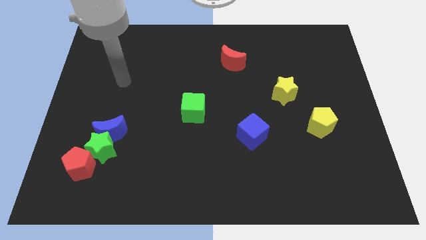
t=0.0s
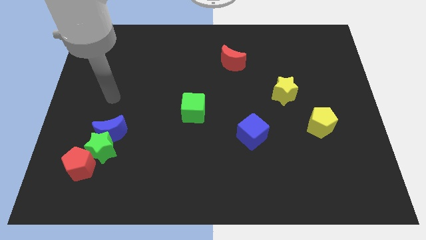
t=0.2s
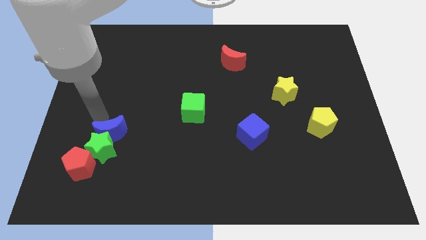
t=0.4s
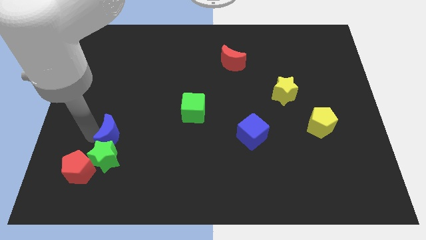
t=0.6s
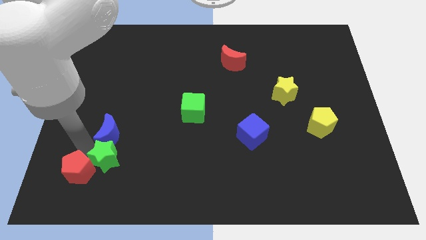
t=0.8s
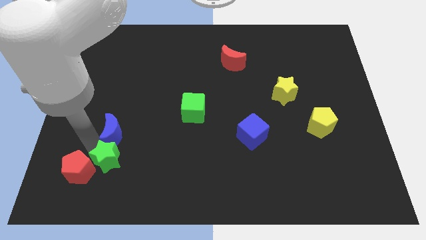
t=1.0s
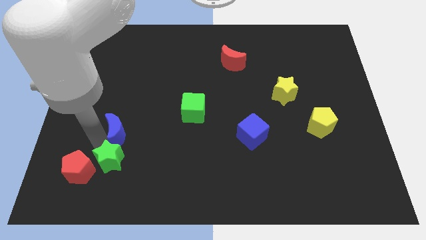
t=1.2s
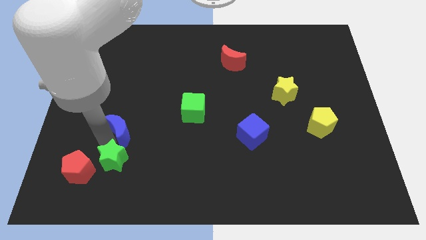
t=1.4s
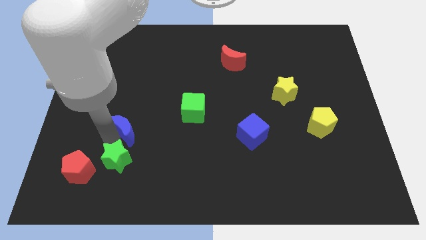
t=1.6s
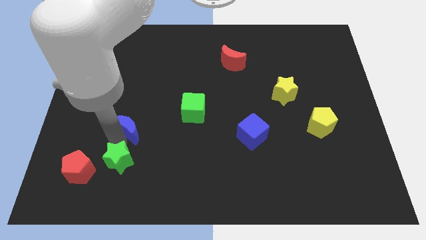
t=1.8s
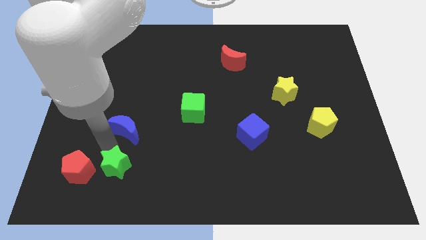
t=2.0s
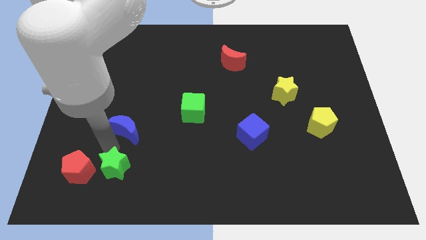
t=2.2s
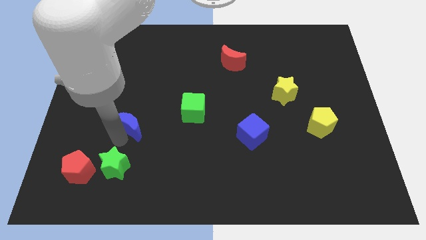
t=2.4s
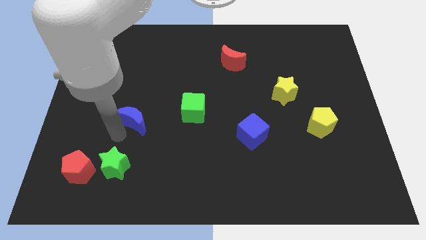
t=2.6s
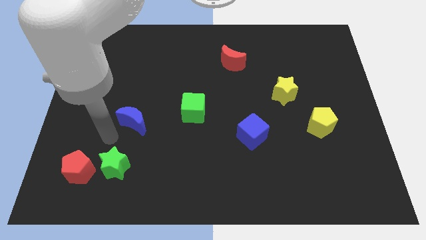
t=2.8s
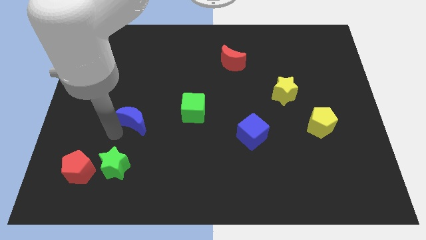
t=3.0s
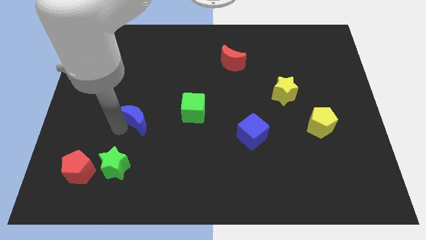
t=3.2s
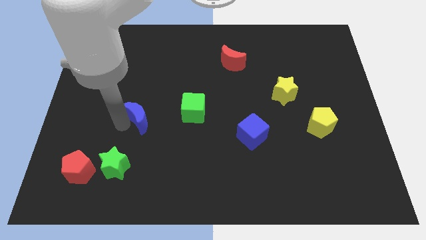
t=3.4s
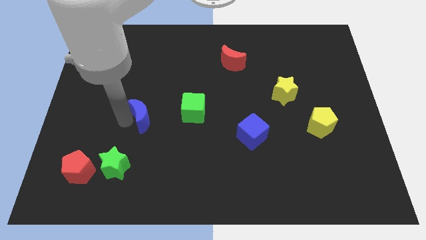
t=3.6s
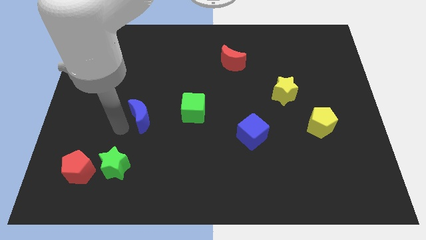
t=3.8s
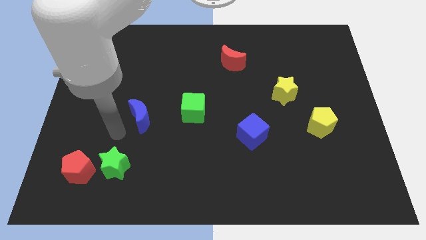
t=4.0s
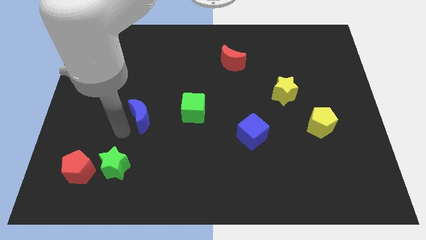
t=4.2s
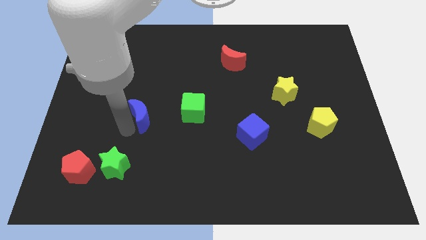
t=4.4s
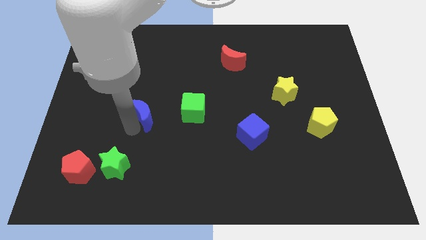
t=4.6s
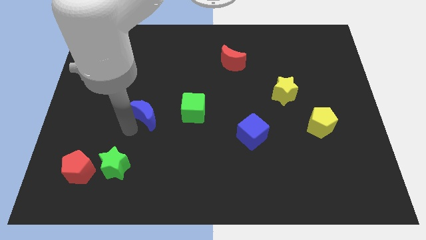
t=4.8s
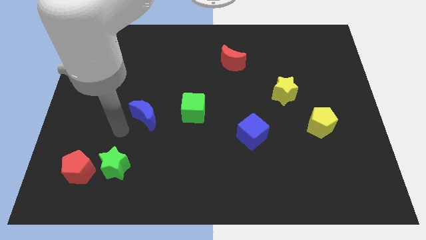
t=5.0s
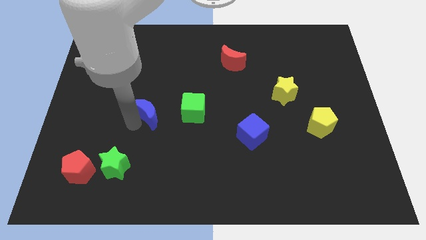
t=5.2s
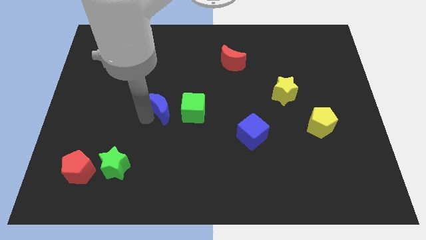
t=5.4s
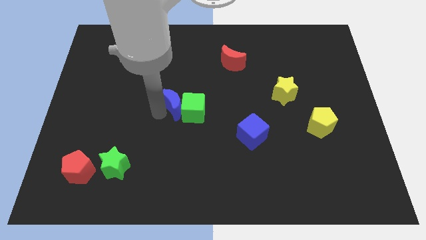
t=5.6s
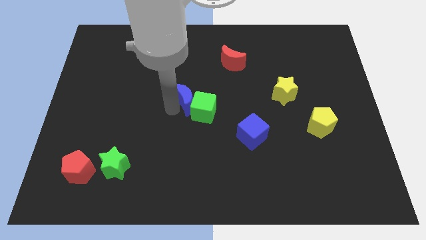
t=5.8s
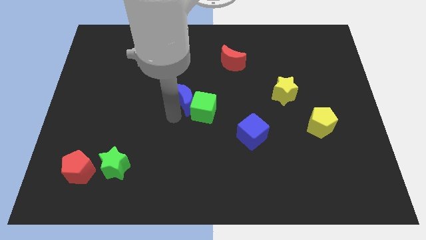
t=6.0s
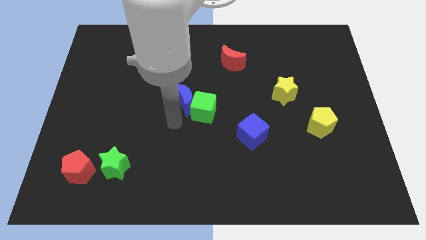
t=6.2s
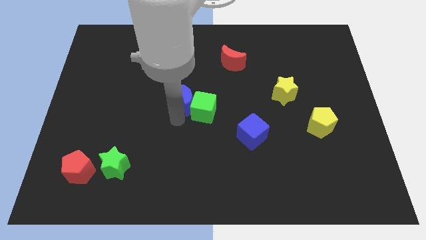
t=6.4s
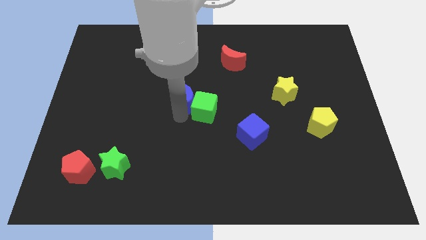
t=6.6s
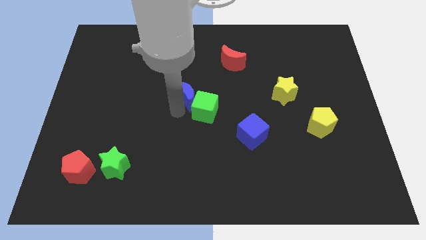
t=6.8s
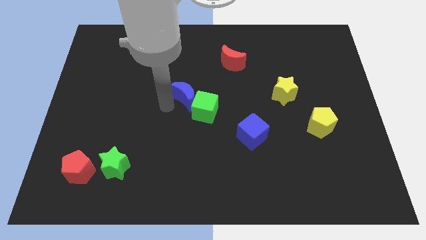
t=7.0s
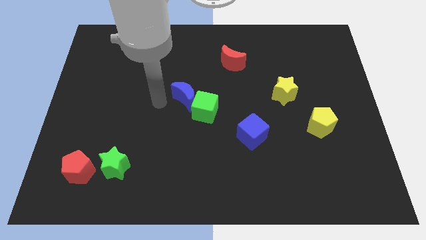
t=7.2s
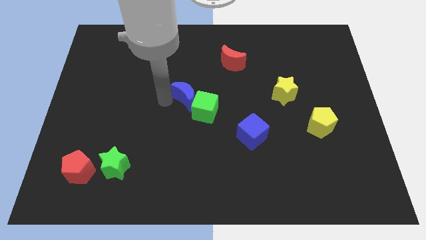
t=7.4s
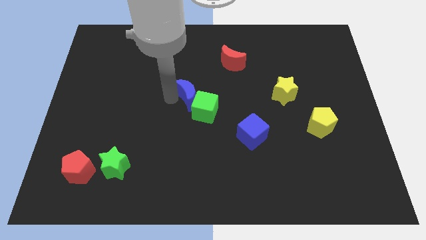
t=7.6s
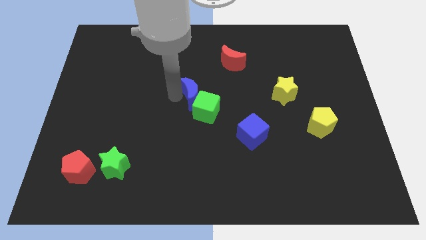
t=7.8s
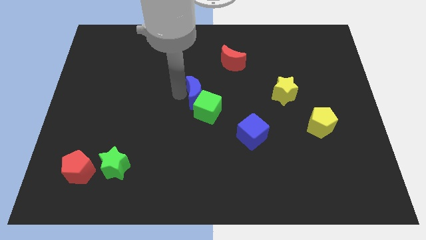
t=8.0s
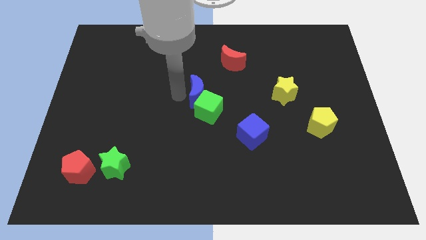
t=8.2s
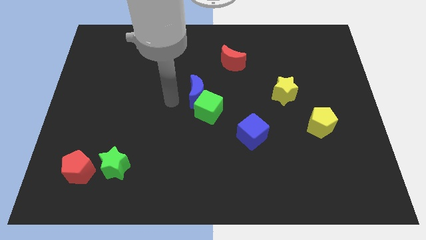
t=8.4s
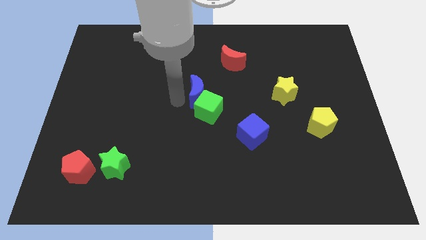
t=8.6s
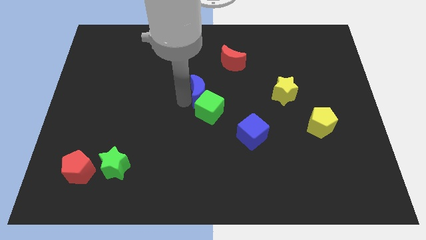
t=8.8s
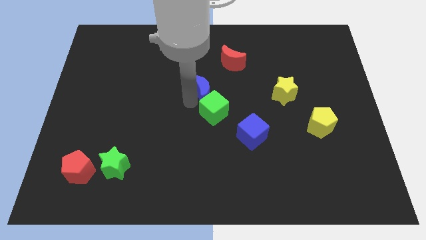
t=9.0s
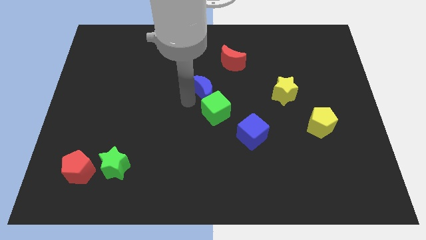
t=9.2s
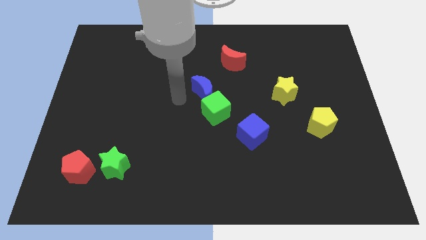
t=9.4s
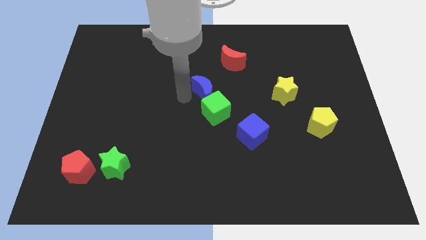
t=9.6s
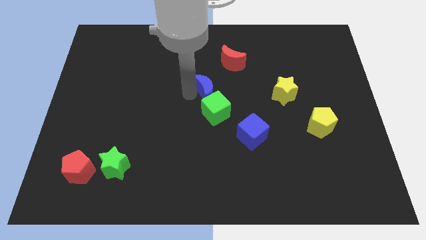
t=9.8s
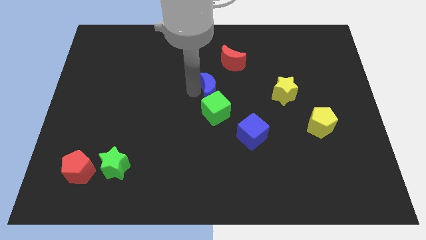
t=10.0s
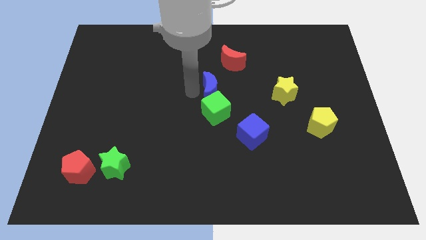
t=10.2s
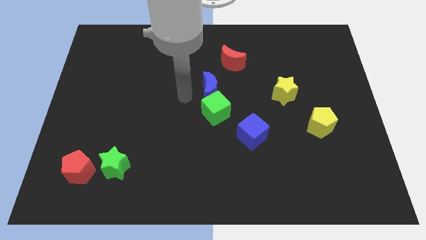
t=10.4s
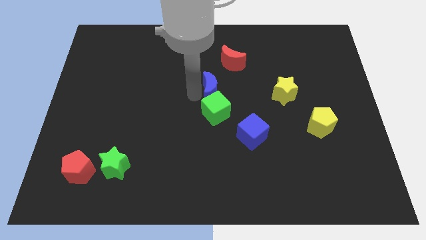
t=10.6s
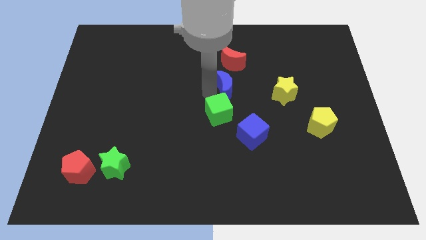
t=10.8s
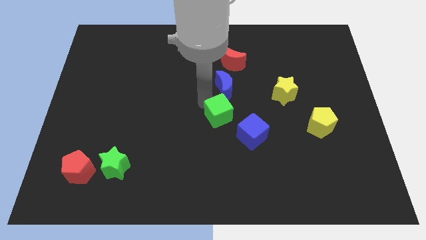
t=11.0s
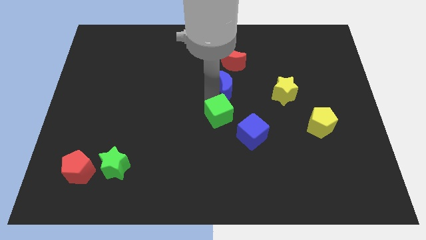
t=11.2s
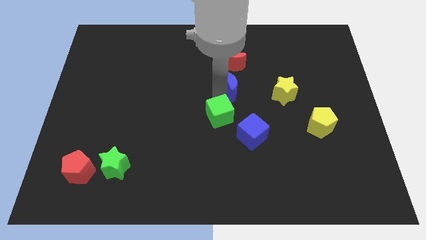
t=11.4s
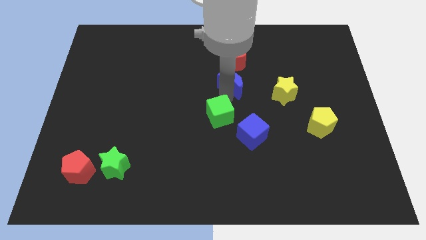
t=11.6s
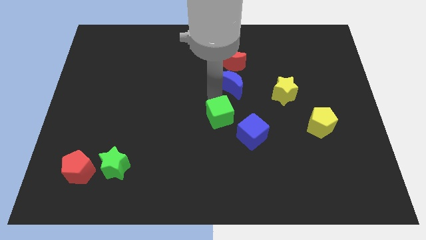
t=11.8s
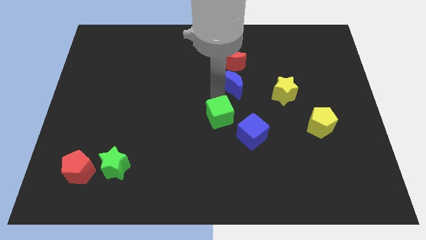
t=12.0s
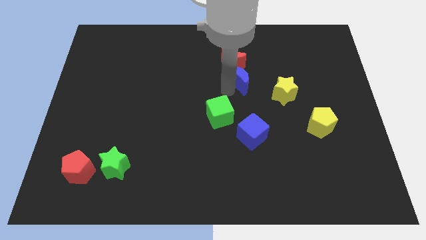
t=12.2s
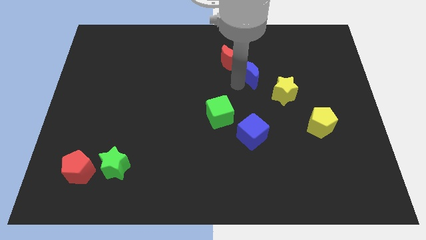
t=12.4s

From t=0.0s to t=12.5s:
move the blue moon just right of the red moon

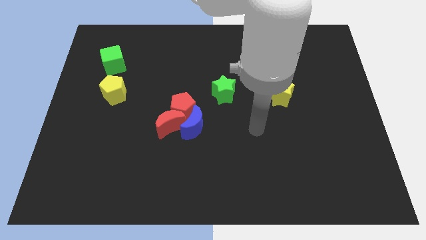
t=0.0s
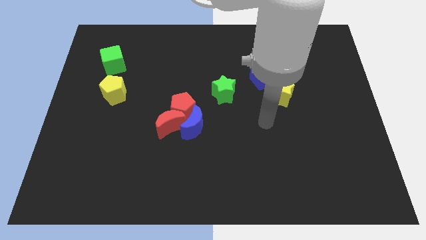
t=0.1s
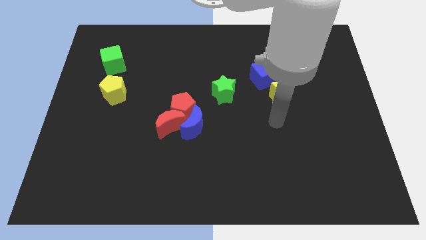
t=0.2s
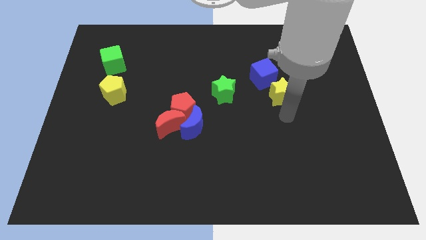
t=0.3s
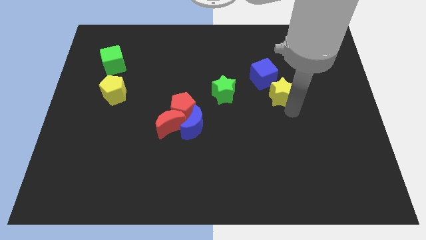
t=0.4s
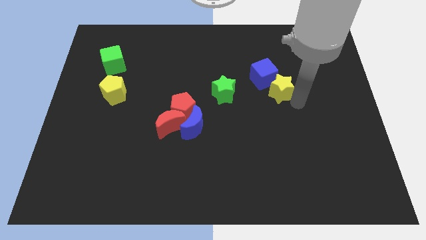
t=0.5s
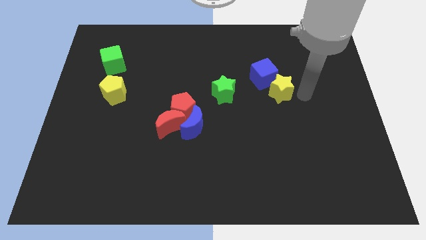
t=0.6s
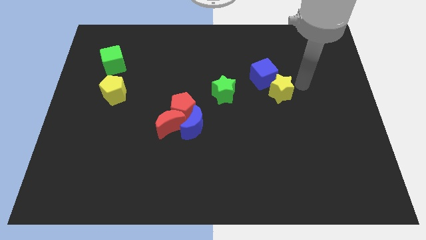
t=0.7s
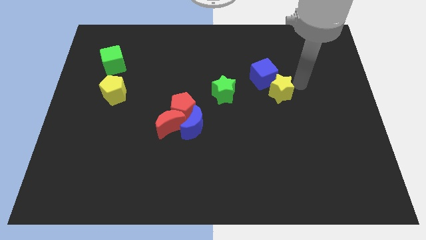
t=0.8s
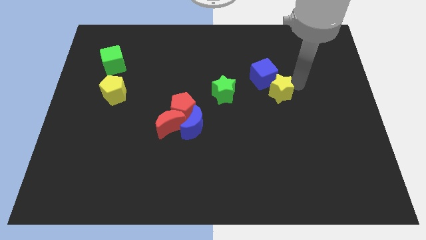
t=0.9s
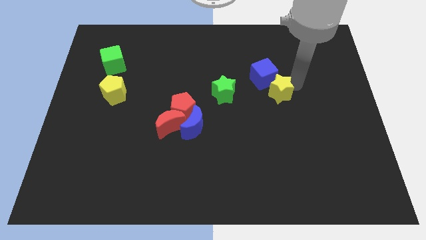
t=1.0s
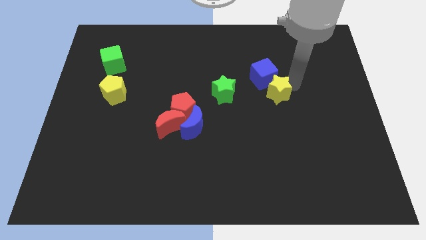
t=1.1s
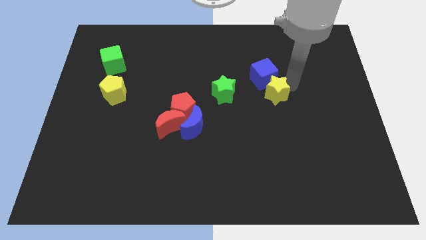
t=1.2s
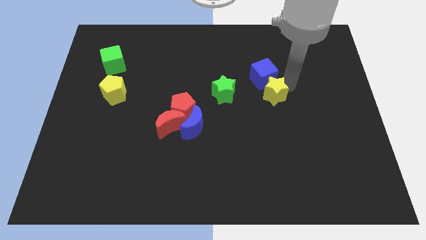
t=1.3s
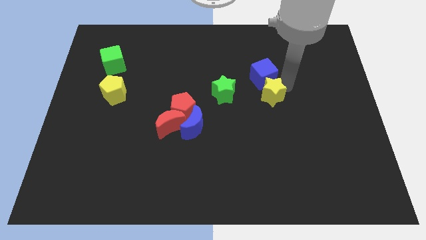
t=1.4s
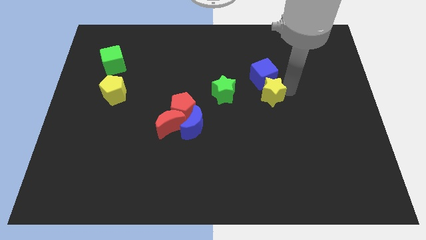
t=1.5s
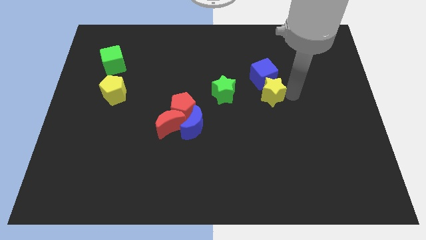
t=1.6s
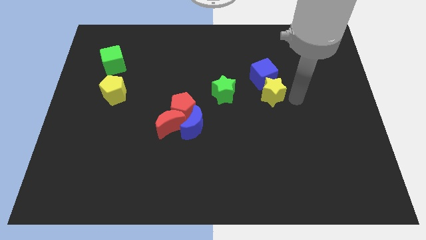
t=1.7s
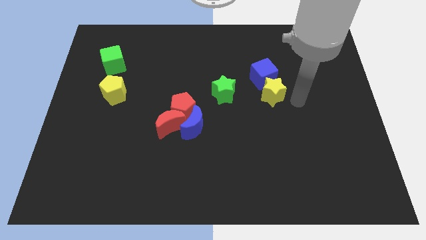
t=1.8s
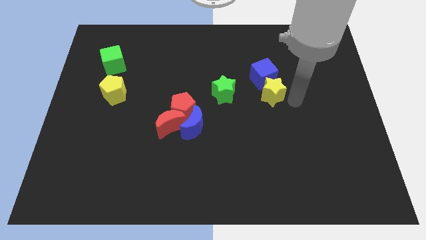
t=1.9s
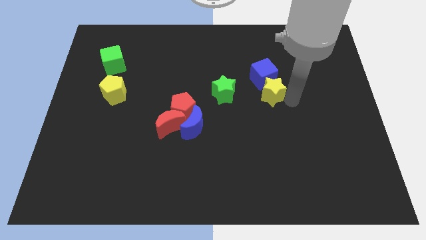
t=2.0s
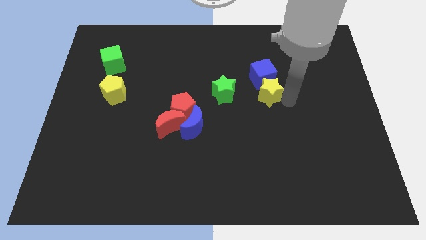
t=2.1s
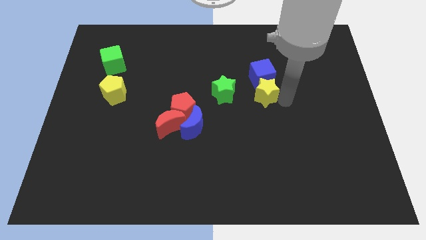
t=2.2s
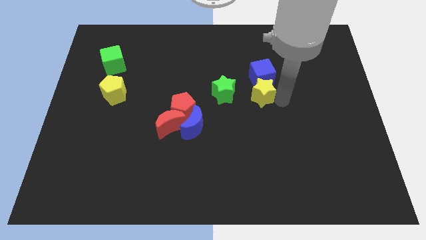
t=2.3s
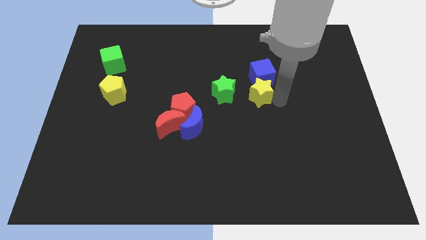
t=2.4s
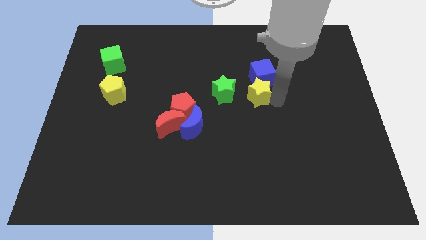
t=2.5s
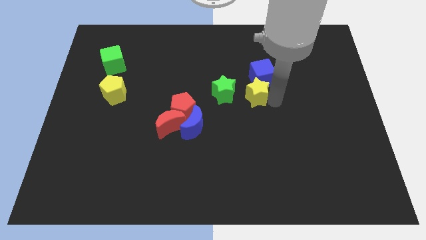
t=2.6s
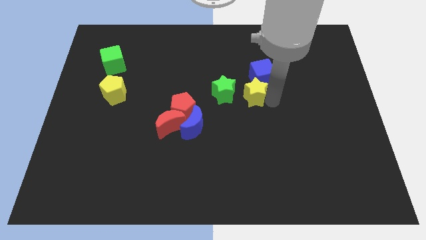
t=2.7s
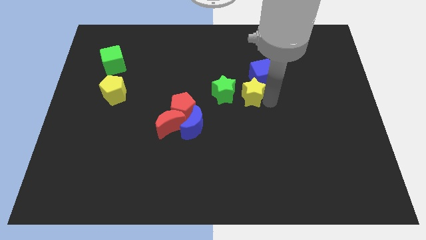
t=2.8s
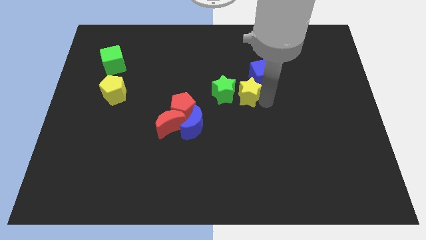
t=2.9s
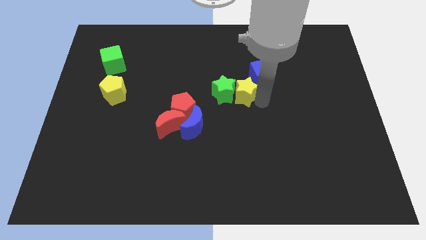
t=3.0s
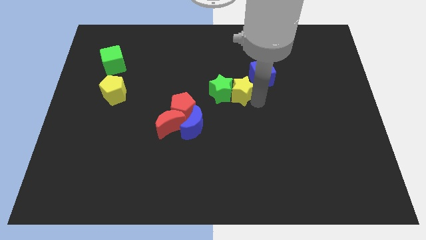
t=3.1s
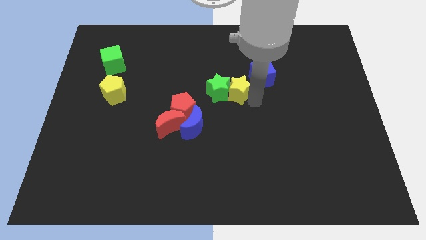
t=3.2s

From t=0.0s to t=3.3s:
slide the yellow star left of the blue cube
